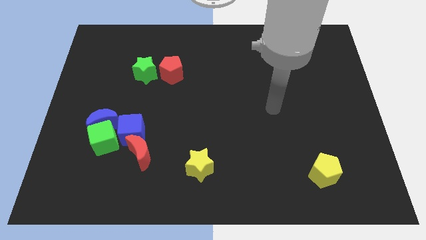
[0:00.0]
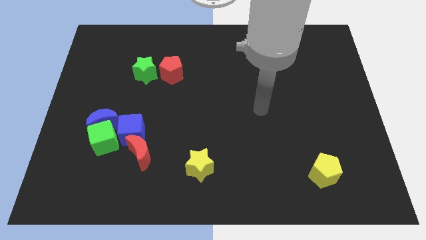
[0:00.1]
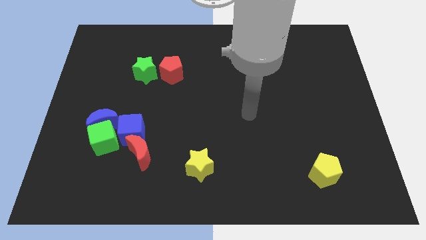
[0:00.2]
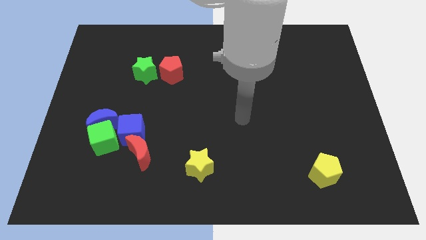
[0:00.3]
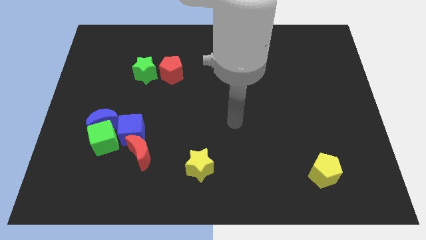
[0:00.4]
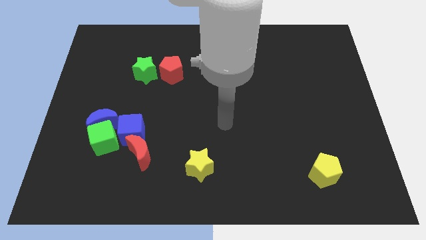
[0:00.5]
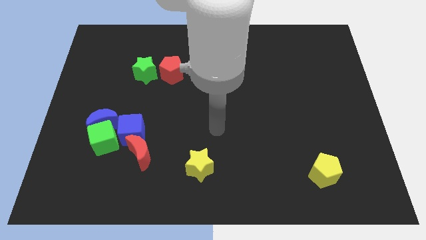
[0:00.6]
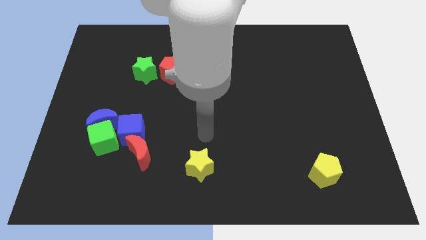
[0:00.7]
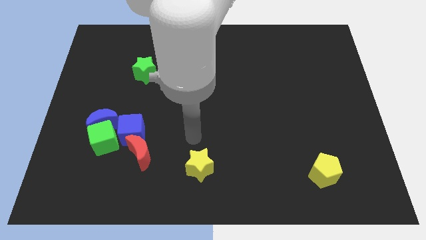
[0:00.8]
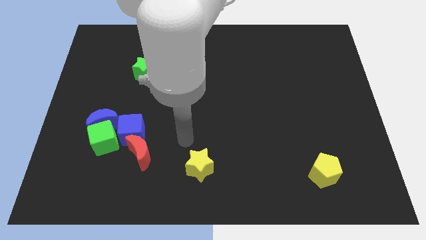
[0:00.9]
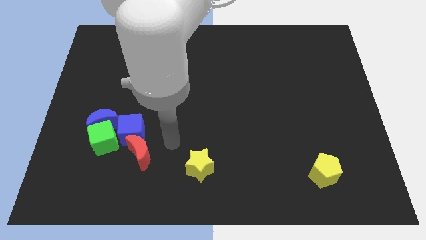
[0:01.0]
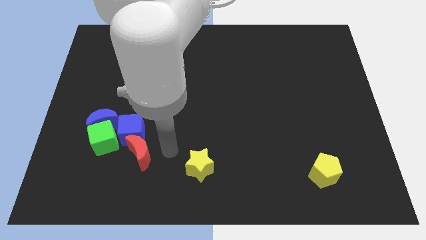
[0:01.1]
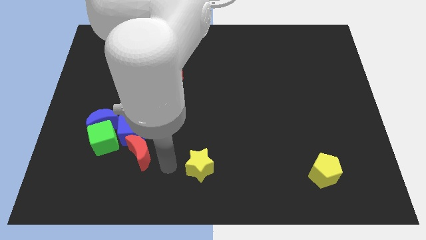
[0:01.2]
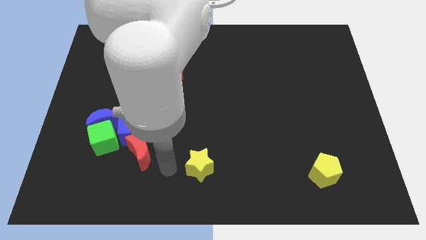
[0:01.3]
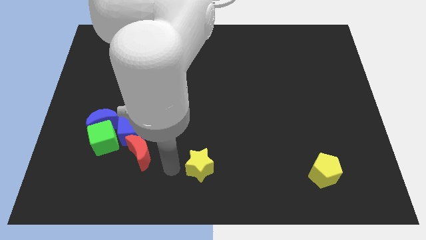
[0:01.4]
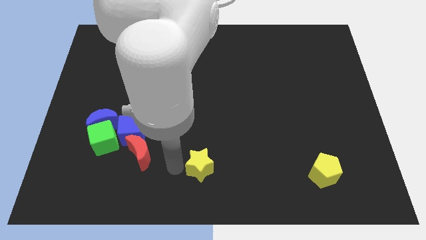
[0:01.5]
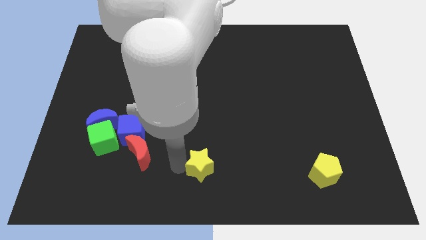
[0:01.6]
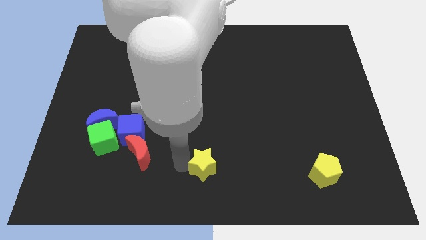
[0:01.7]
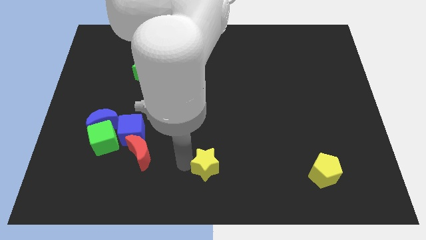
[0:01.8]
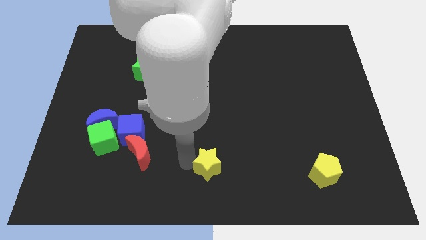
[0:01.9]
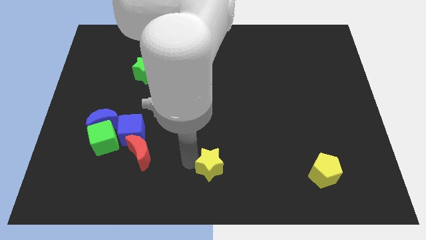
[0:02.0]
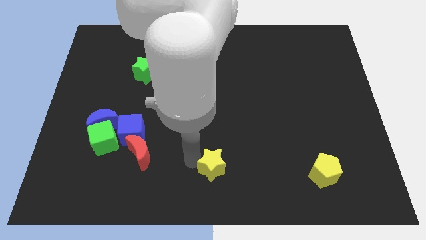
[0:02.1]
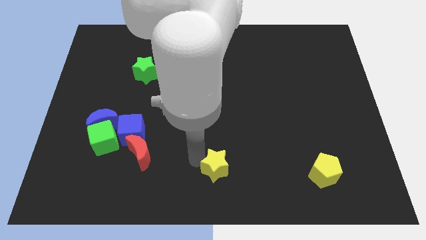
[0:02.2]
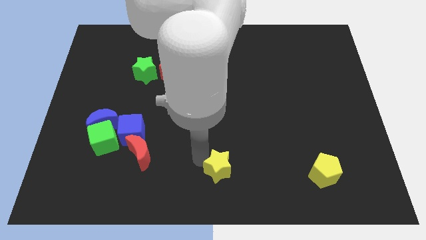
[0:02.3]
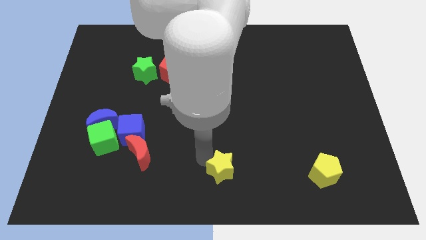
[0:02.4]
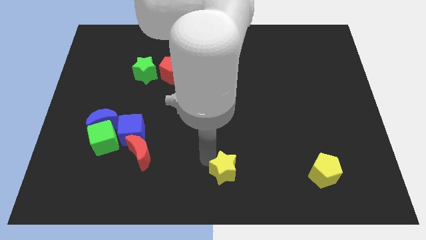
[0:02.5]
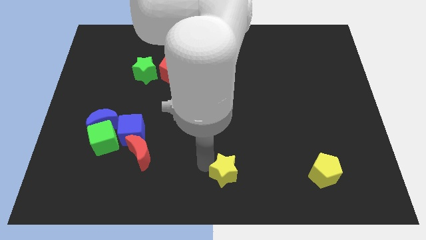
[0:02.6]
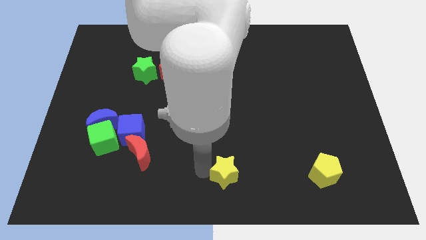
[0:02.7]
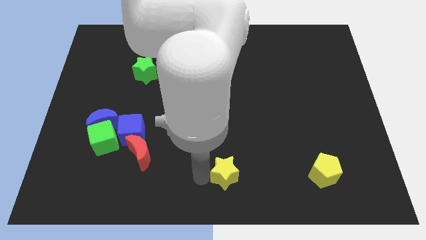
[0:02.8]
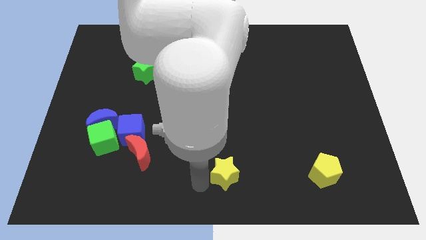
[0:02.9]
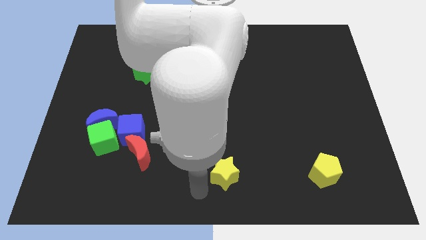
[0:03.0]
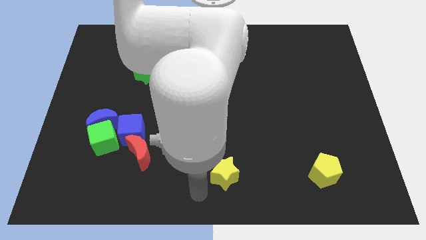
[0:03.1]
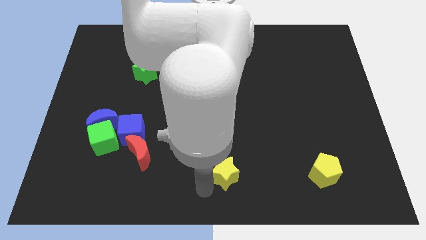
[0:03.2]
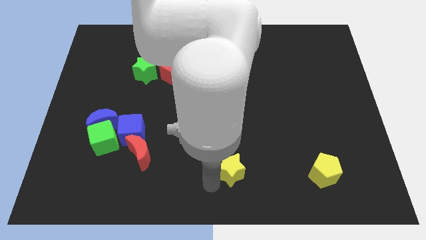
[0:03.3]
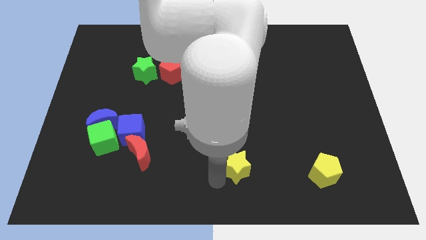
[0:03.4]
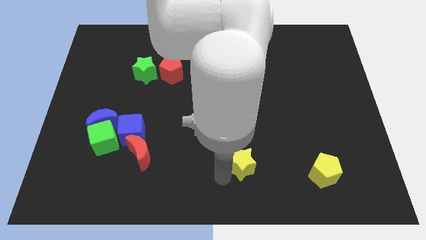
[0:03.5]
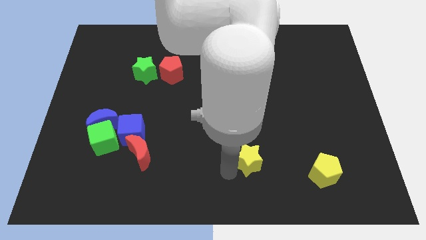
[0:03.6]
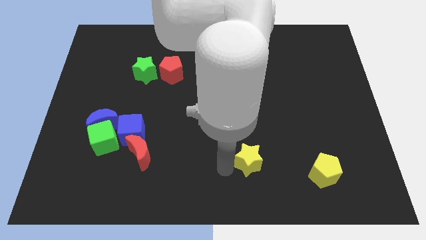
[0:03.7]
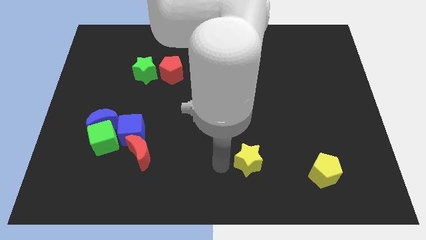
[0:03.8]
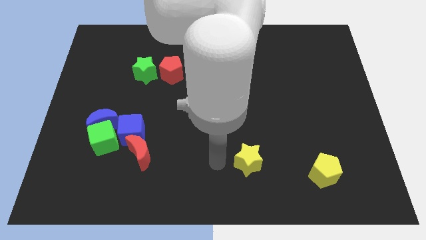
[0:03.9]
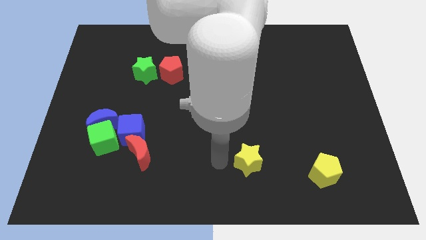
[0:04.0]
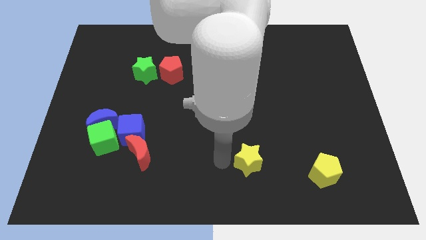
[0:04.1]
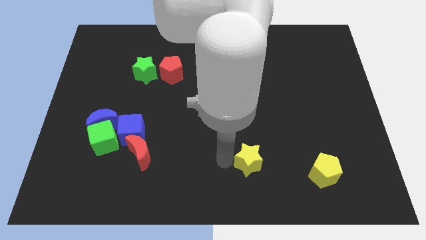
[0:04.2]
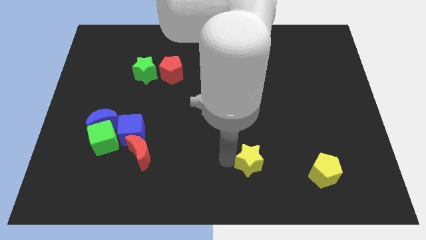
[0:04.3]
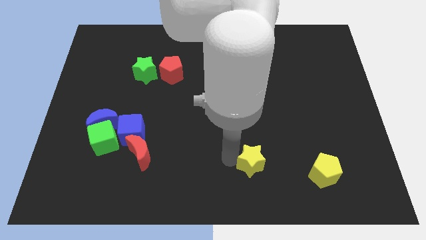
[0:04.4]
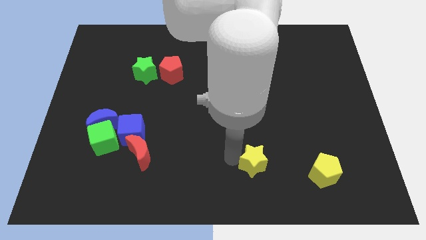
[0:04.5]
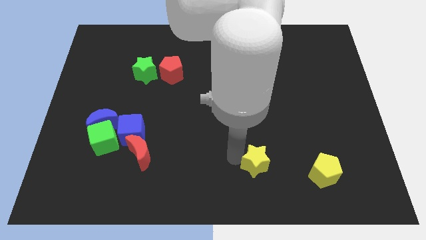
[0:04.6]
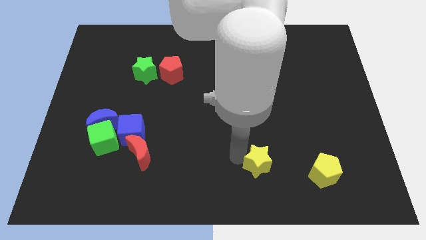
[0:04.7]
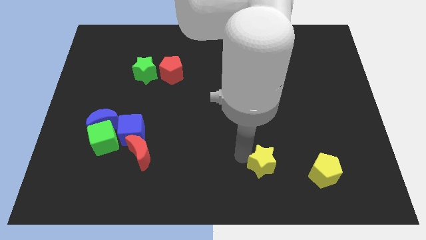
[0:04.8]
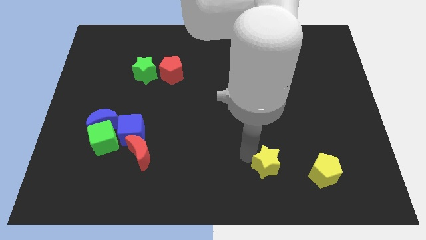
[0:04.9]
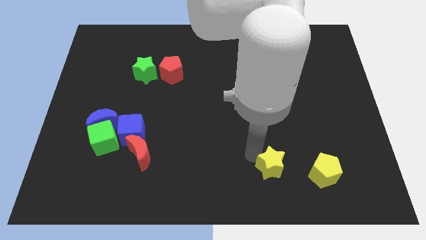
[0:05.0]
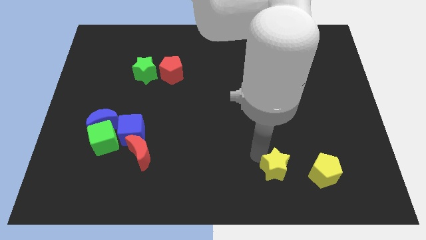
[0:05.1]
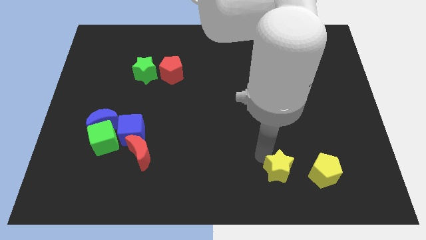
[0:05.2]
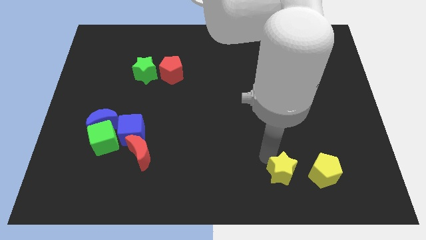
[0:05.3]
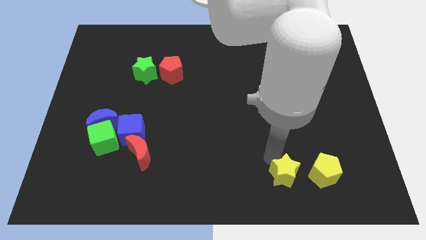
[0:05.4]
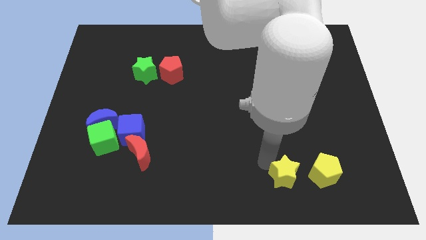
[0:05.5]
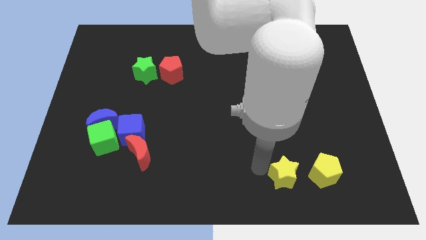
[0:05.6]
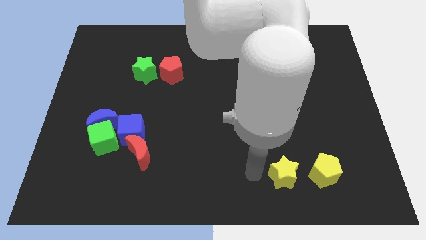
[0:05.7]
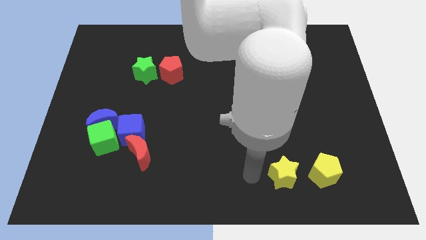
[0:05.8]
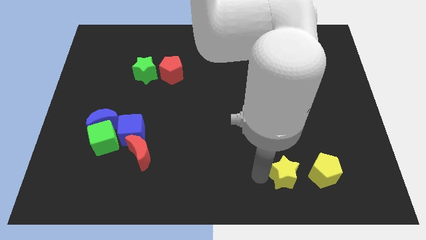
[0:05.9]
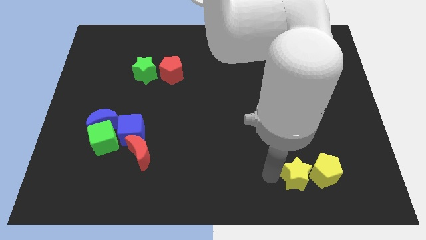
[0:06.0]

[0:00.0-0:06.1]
slide the yellow star to the yellow pentagon
